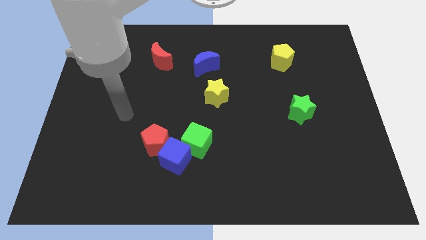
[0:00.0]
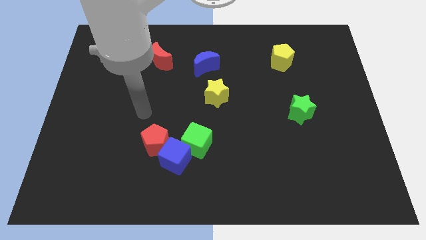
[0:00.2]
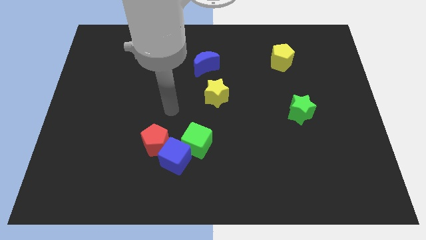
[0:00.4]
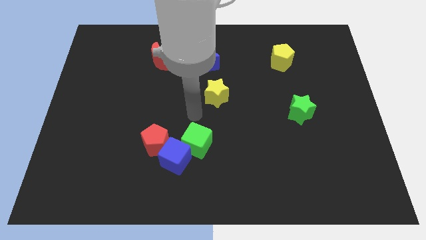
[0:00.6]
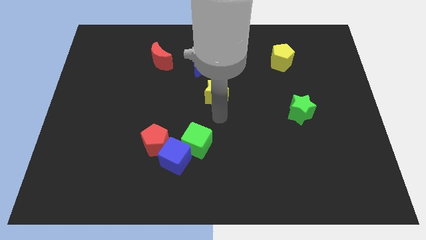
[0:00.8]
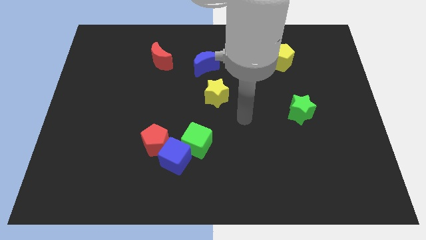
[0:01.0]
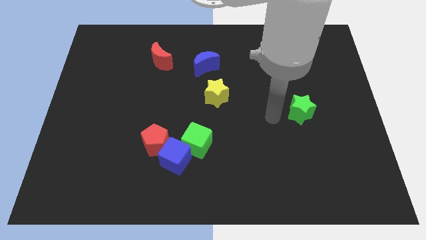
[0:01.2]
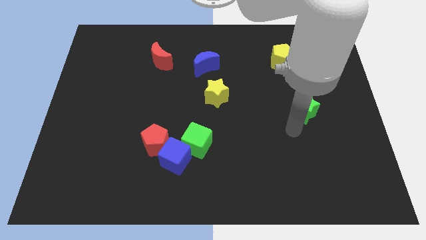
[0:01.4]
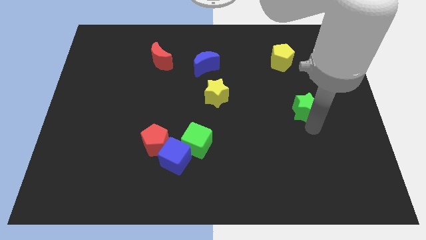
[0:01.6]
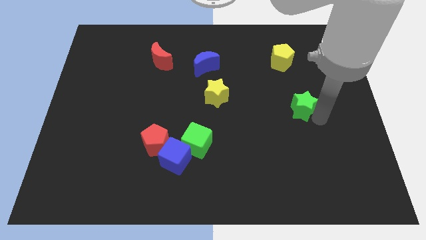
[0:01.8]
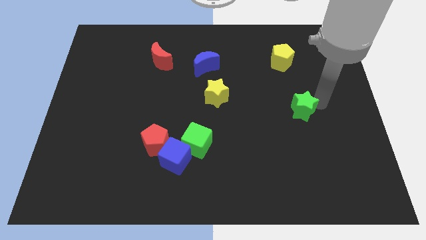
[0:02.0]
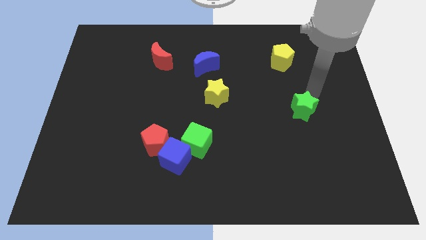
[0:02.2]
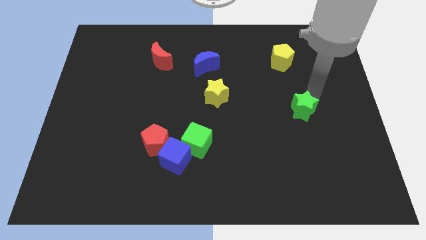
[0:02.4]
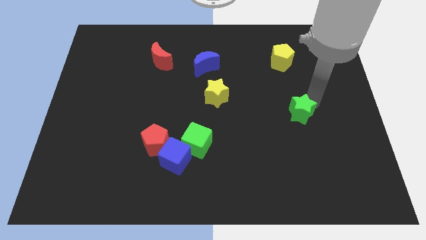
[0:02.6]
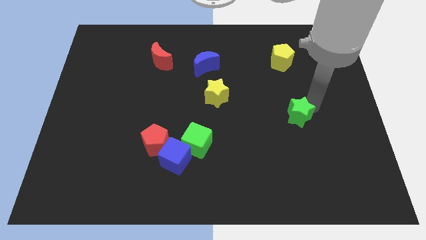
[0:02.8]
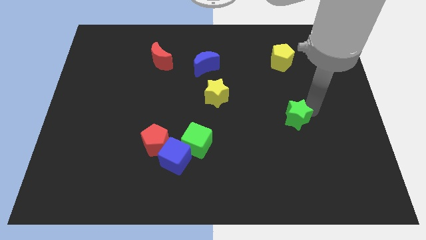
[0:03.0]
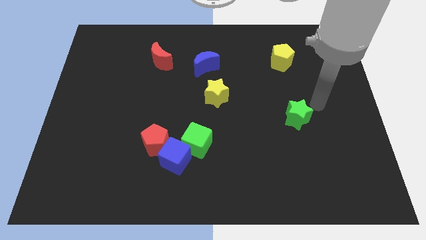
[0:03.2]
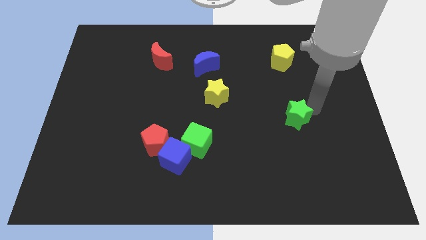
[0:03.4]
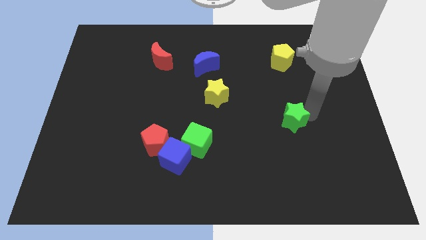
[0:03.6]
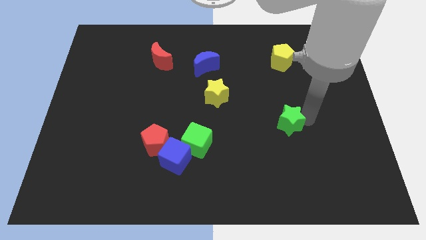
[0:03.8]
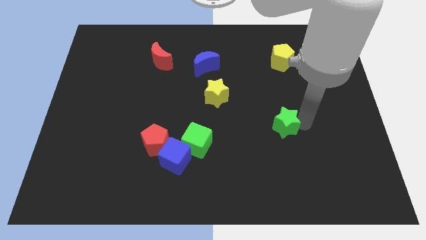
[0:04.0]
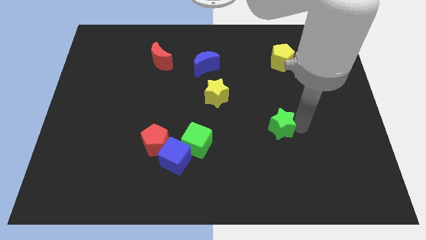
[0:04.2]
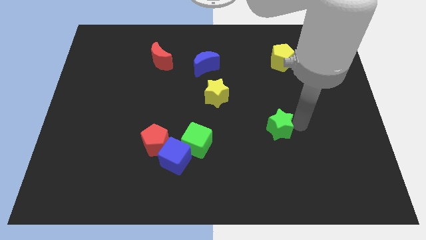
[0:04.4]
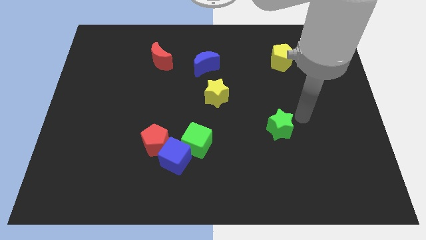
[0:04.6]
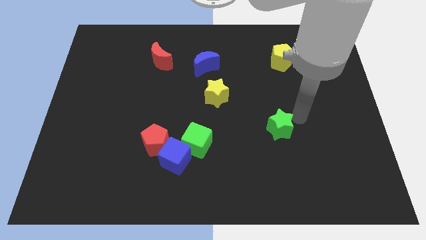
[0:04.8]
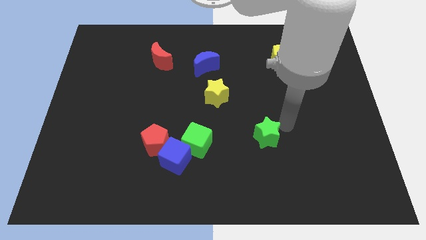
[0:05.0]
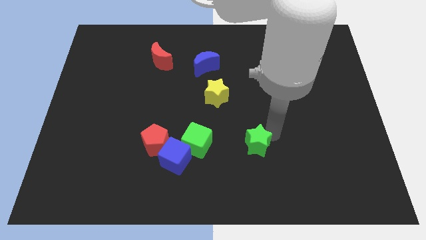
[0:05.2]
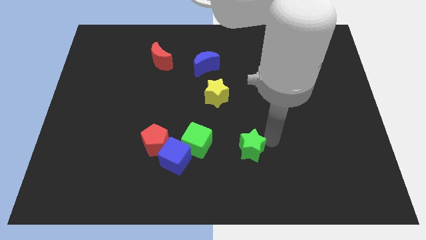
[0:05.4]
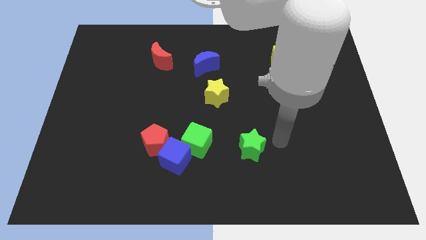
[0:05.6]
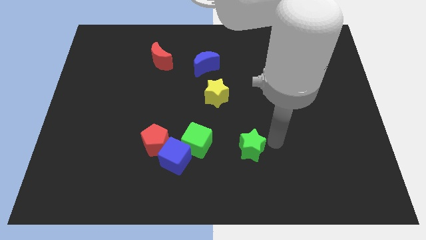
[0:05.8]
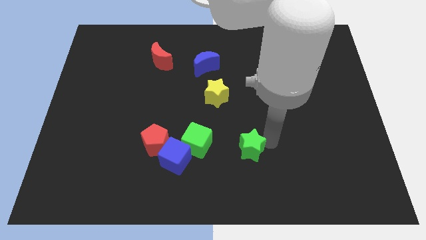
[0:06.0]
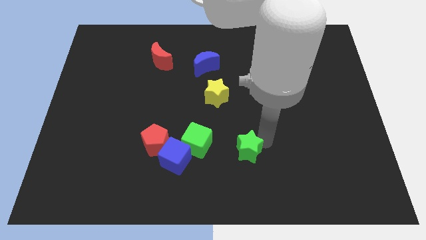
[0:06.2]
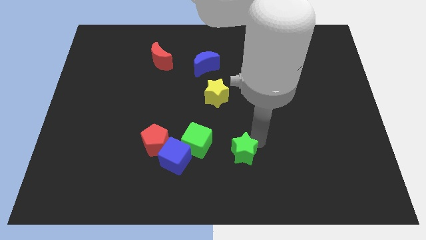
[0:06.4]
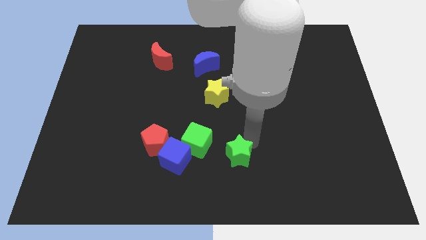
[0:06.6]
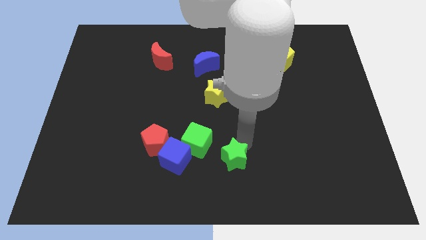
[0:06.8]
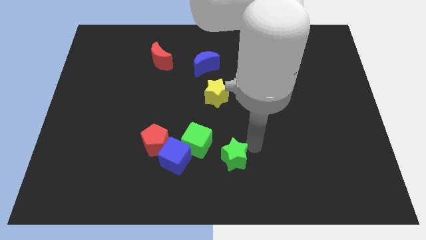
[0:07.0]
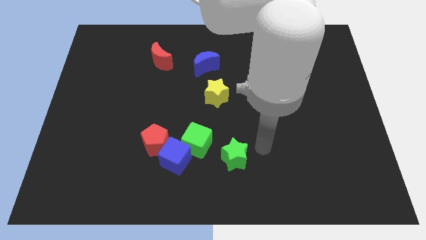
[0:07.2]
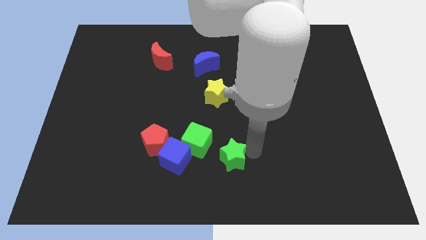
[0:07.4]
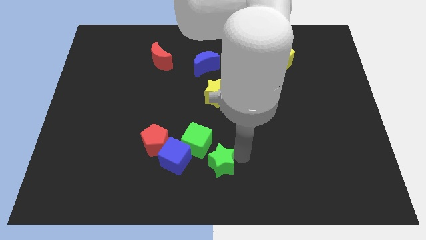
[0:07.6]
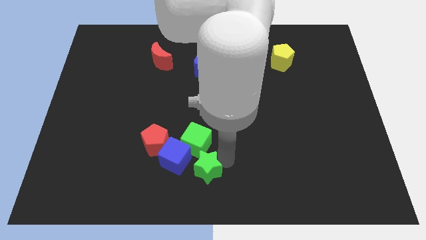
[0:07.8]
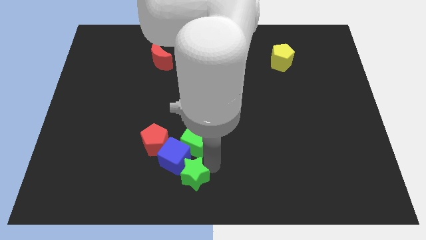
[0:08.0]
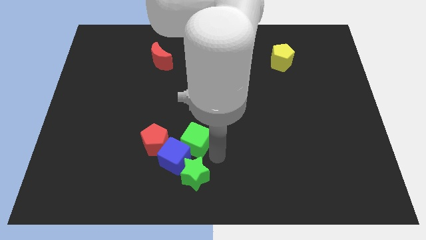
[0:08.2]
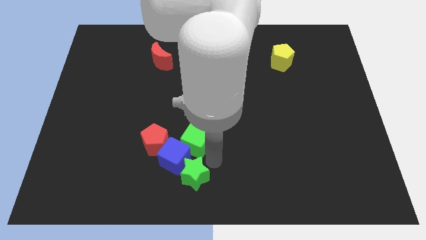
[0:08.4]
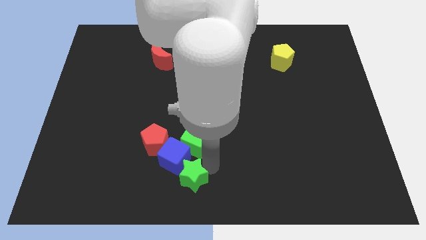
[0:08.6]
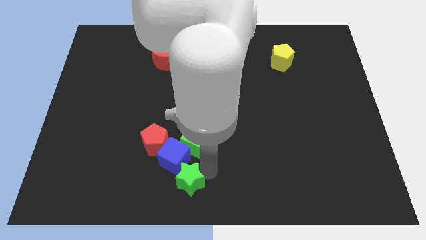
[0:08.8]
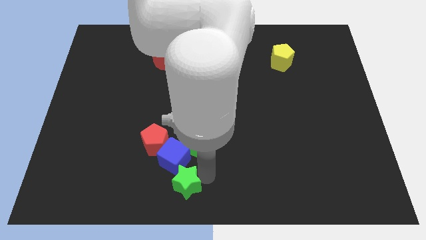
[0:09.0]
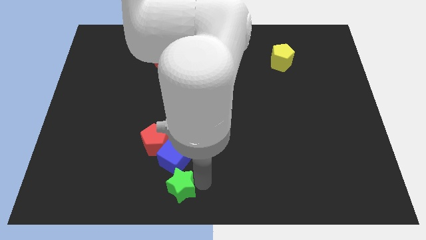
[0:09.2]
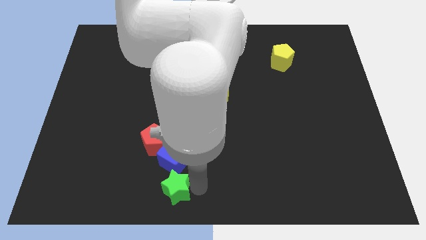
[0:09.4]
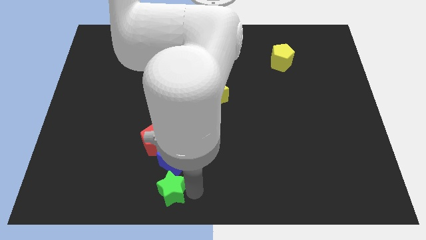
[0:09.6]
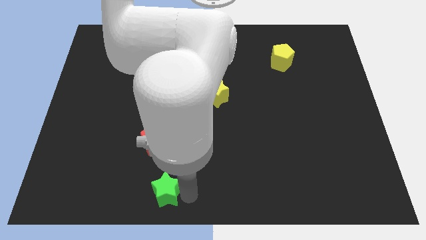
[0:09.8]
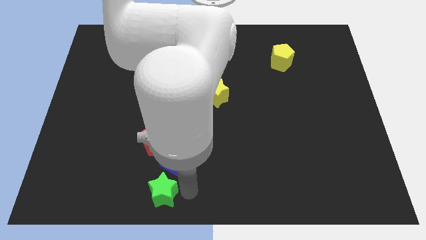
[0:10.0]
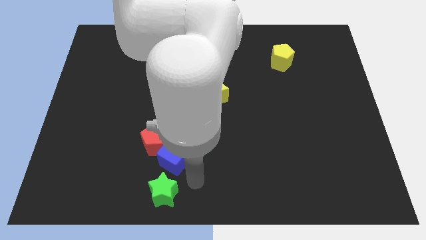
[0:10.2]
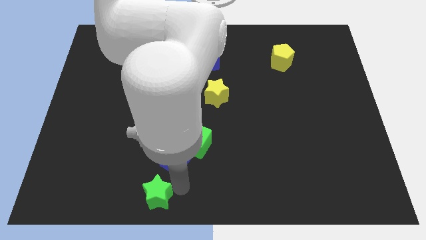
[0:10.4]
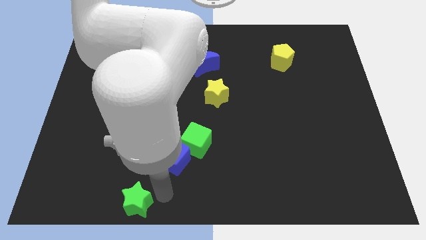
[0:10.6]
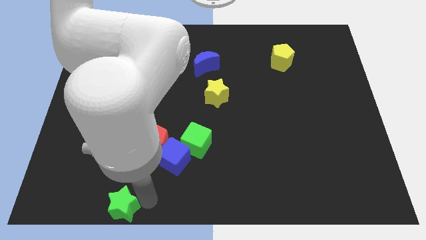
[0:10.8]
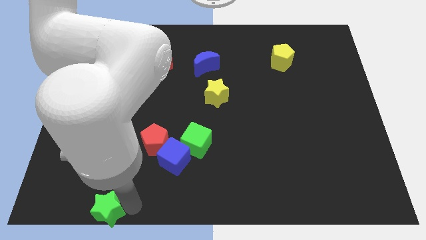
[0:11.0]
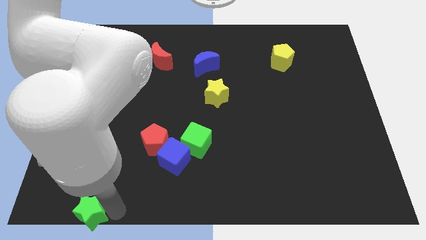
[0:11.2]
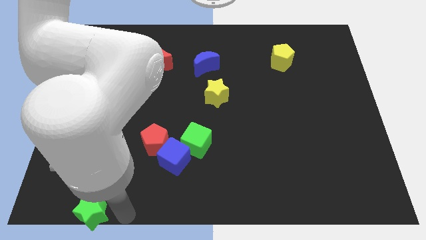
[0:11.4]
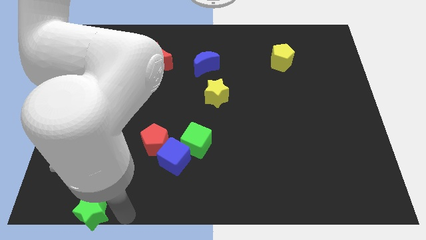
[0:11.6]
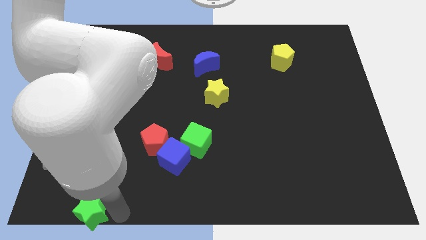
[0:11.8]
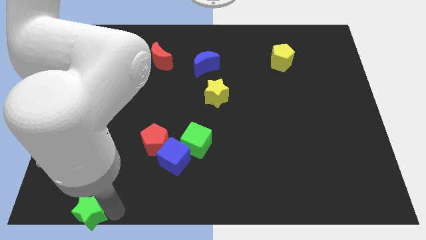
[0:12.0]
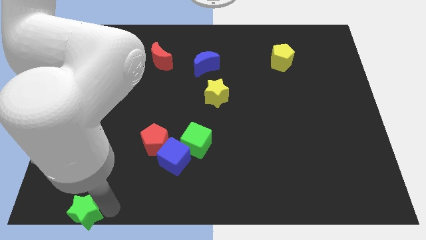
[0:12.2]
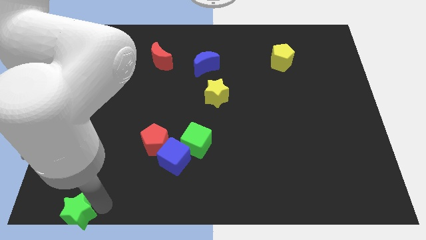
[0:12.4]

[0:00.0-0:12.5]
put the green star to the bottom left of the board

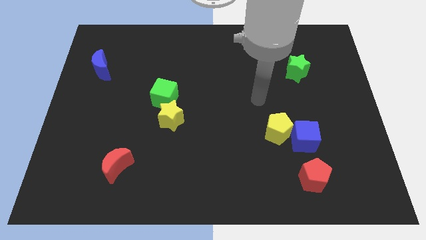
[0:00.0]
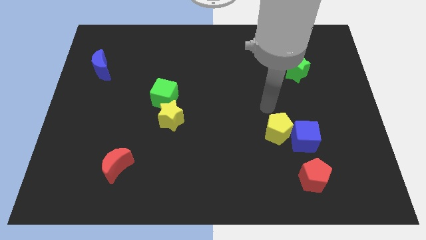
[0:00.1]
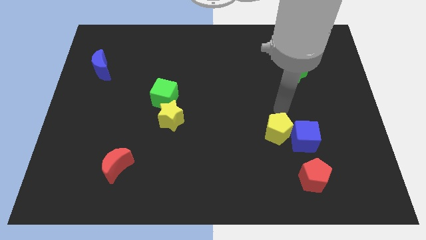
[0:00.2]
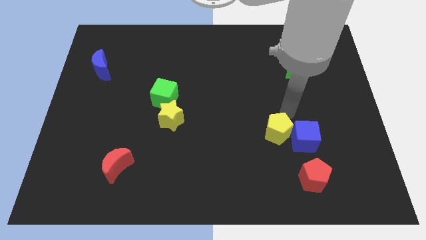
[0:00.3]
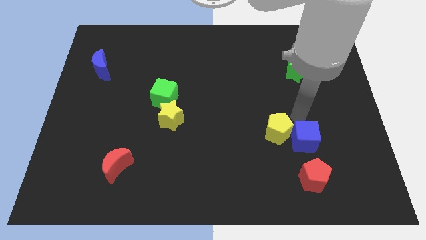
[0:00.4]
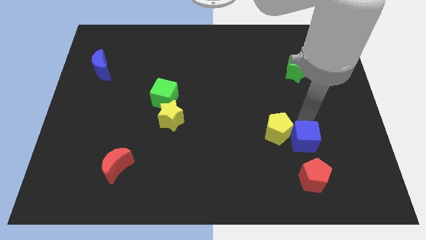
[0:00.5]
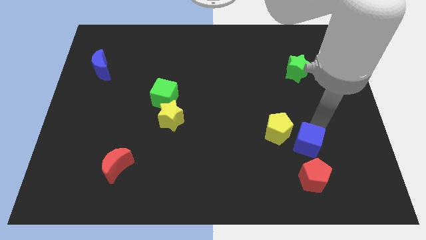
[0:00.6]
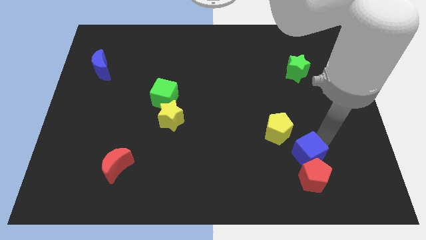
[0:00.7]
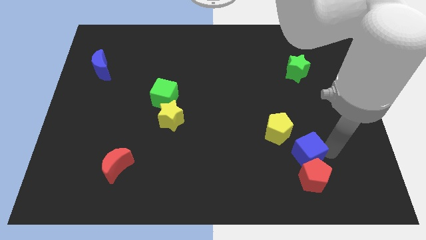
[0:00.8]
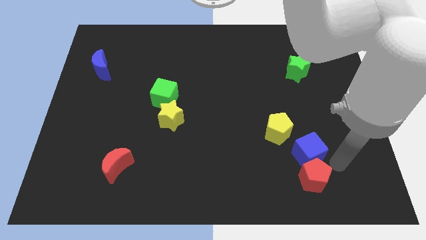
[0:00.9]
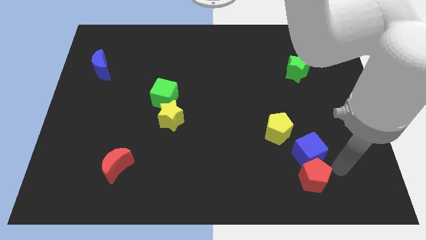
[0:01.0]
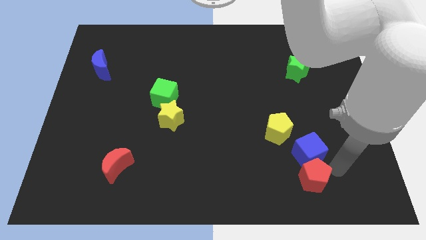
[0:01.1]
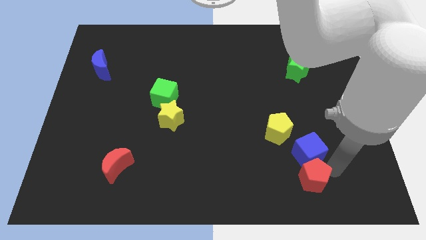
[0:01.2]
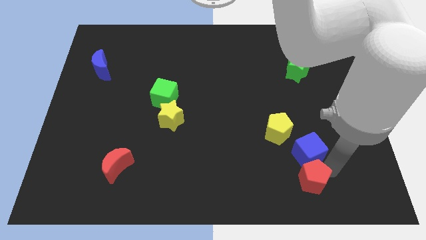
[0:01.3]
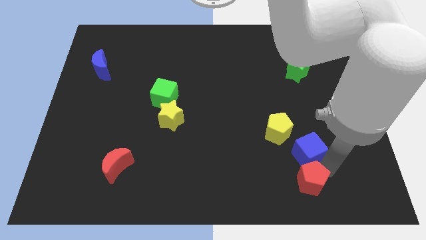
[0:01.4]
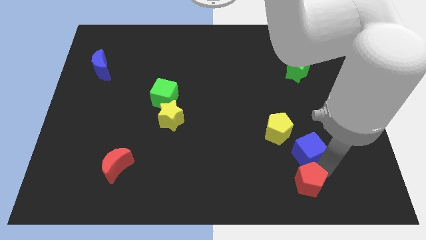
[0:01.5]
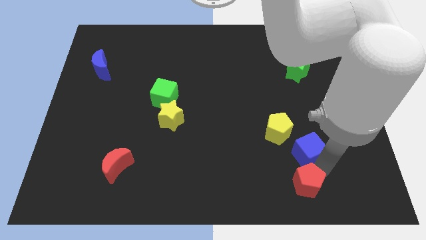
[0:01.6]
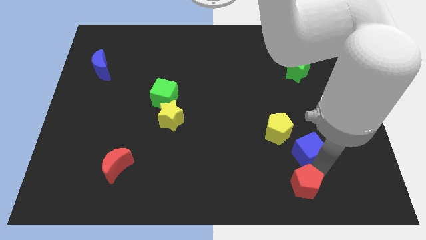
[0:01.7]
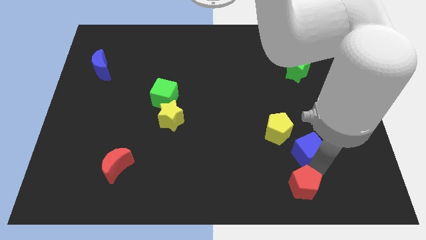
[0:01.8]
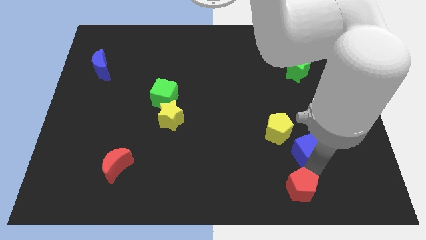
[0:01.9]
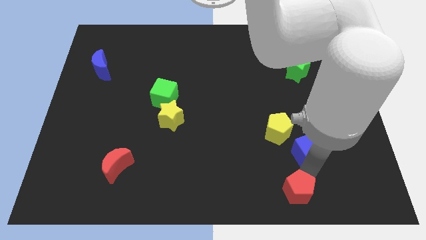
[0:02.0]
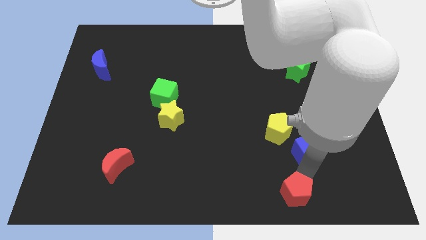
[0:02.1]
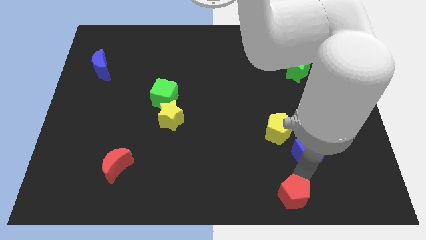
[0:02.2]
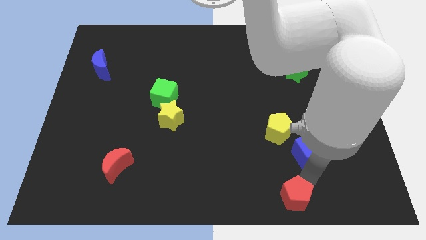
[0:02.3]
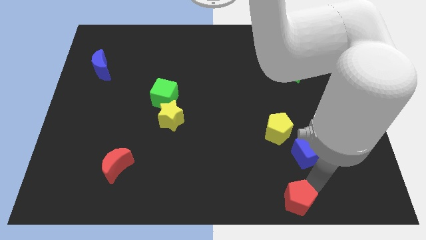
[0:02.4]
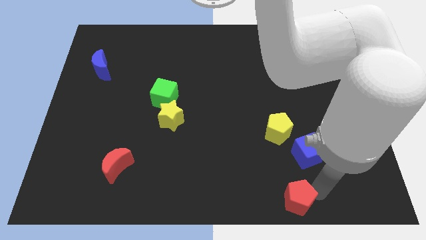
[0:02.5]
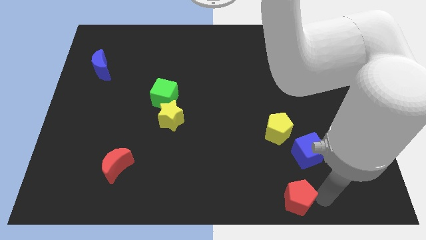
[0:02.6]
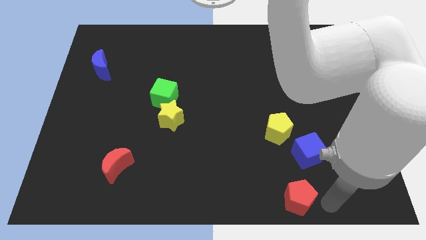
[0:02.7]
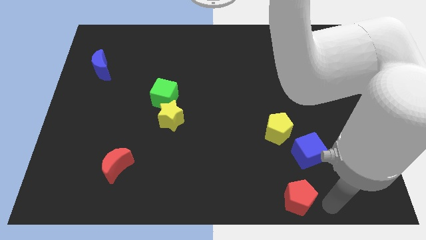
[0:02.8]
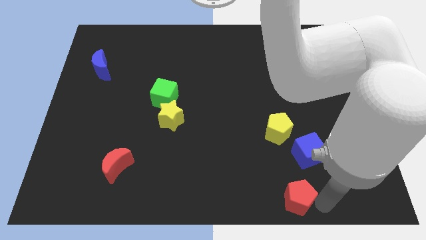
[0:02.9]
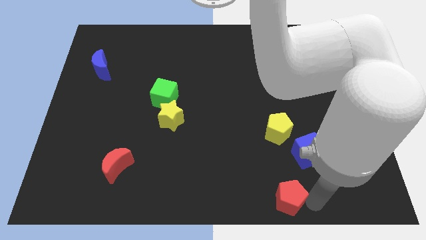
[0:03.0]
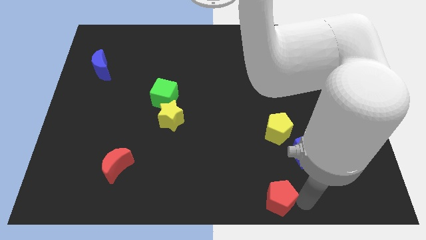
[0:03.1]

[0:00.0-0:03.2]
slide the red pentagon to the bottom side
